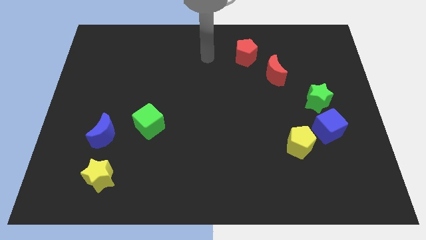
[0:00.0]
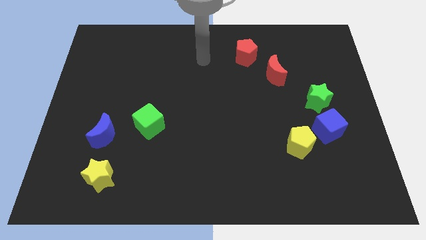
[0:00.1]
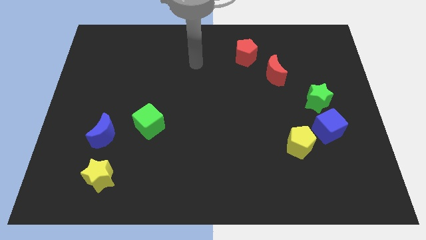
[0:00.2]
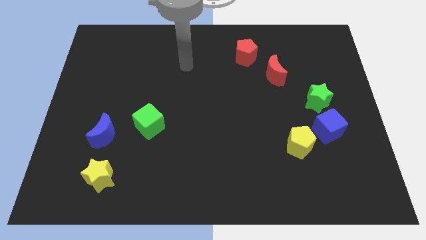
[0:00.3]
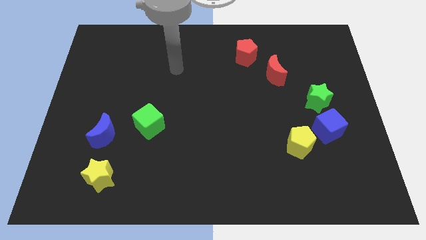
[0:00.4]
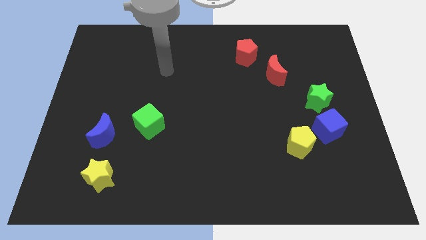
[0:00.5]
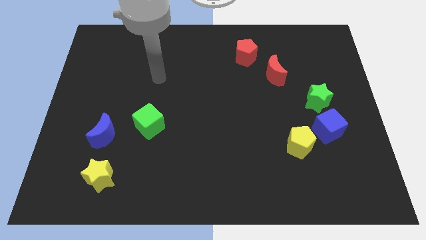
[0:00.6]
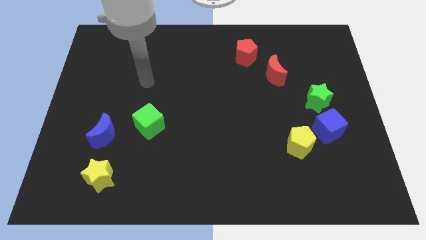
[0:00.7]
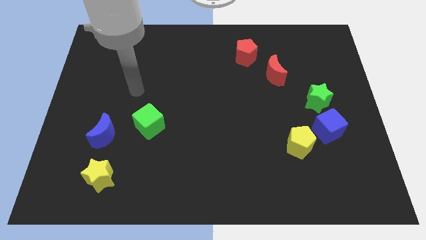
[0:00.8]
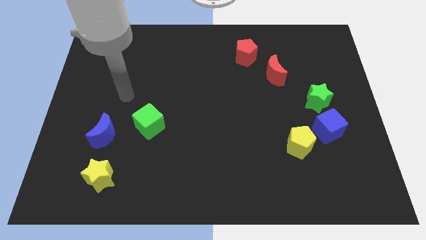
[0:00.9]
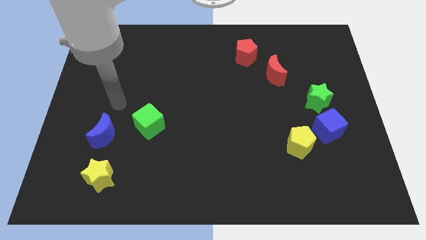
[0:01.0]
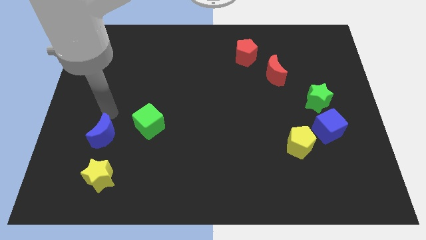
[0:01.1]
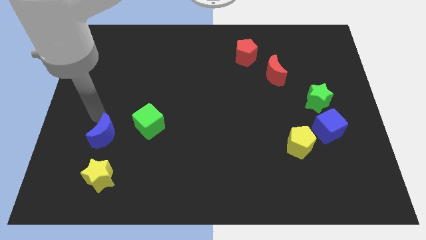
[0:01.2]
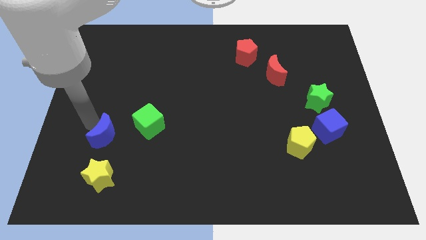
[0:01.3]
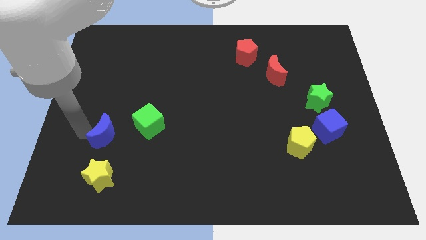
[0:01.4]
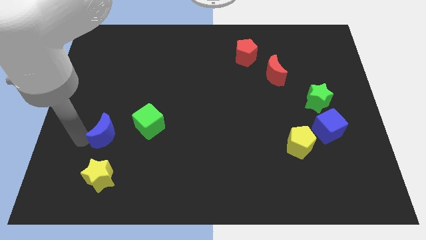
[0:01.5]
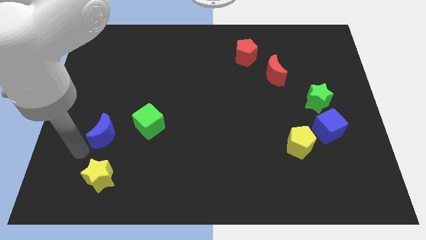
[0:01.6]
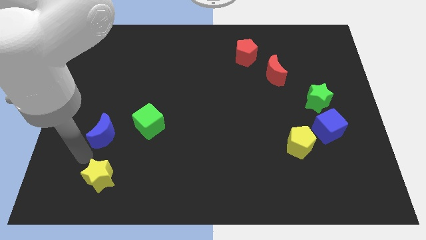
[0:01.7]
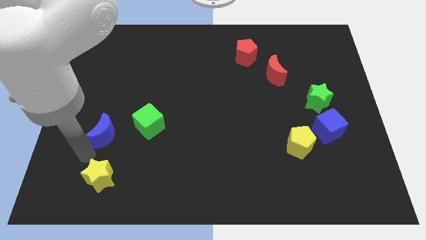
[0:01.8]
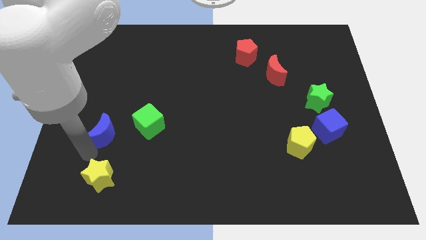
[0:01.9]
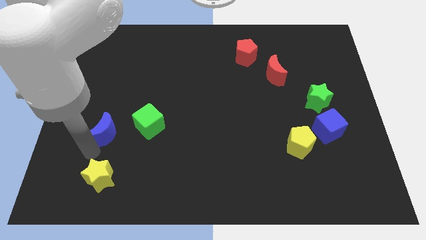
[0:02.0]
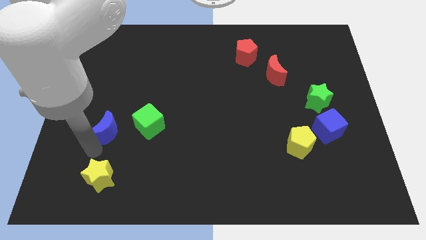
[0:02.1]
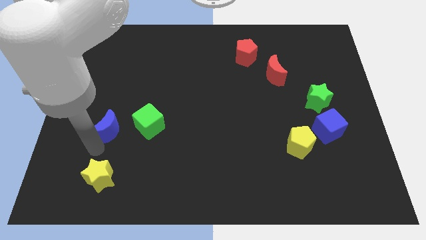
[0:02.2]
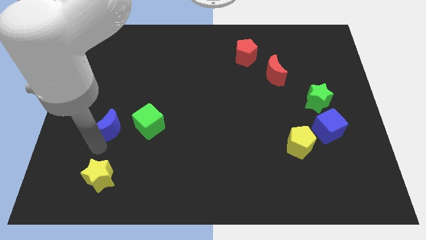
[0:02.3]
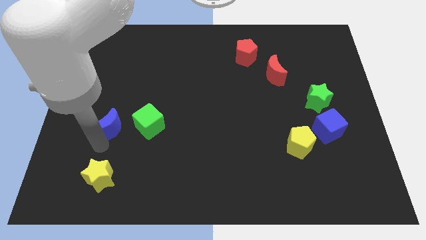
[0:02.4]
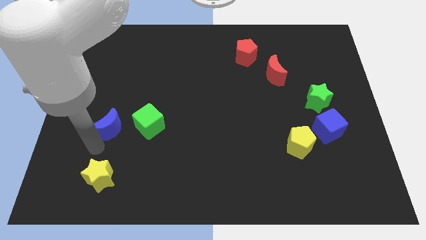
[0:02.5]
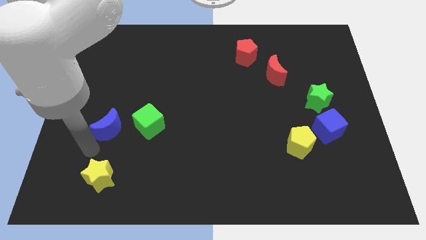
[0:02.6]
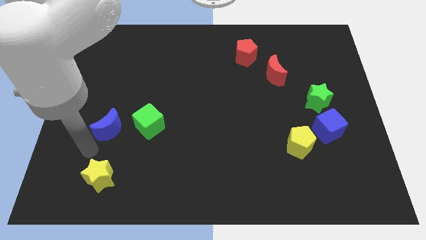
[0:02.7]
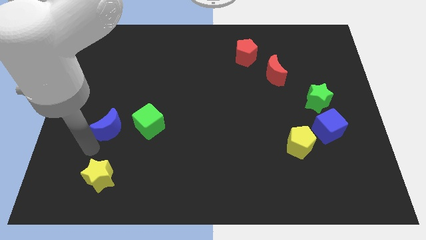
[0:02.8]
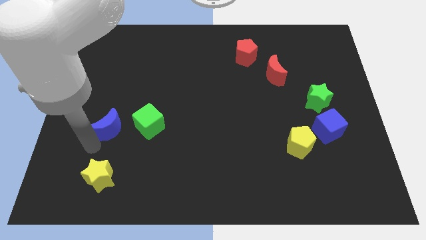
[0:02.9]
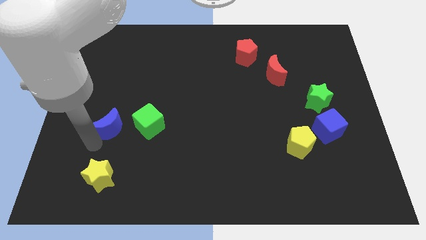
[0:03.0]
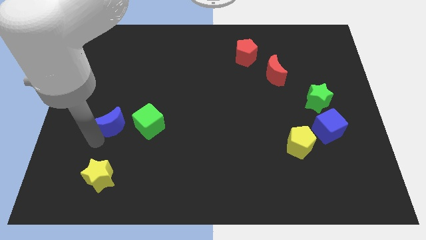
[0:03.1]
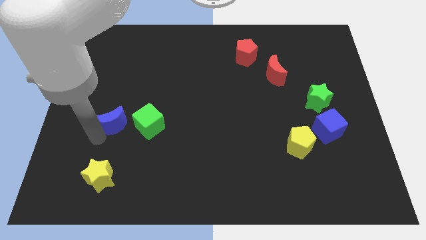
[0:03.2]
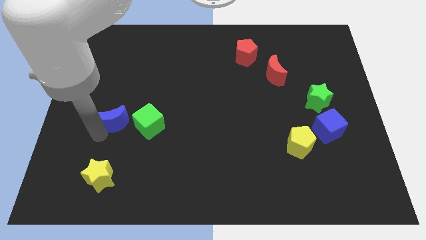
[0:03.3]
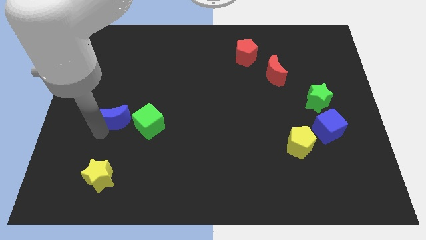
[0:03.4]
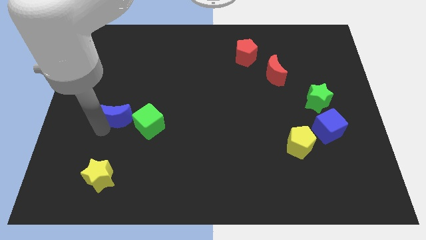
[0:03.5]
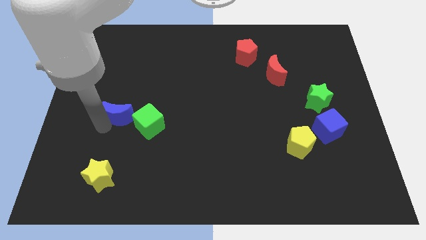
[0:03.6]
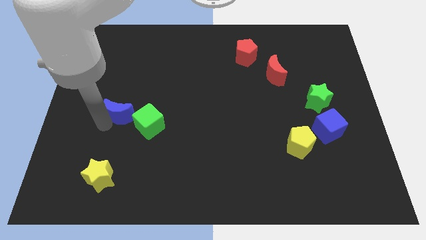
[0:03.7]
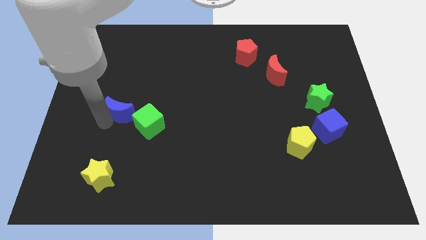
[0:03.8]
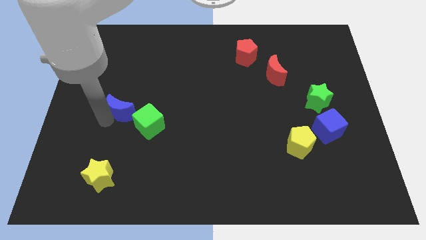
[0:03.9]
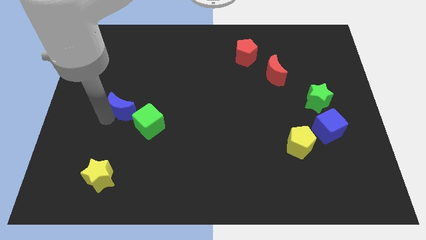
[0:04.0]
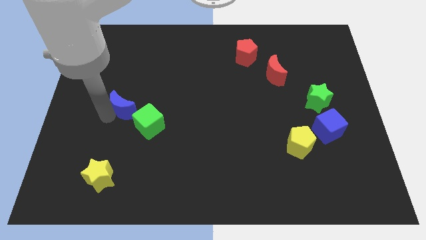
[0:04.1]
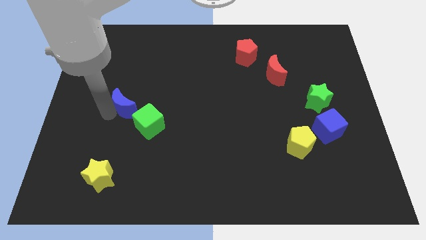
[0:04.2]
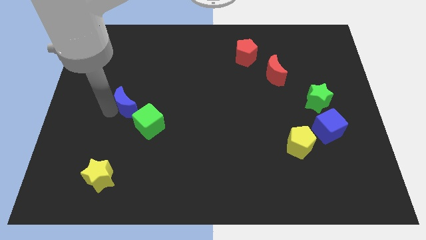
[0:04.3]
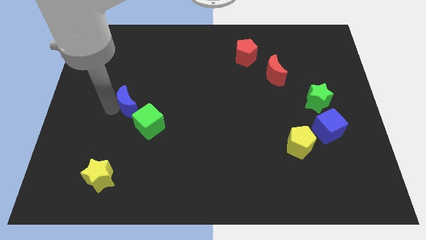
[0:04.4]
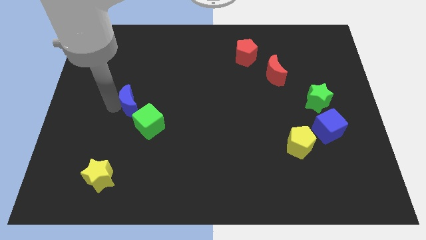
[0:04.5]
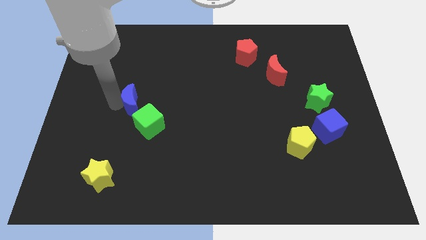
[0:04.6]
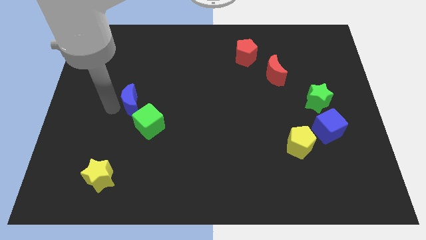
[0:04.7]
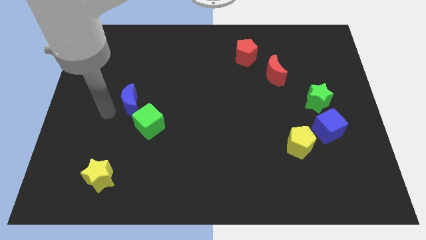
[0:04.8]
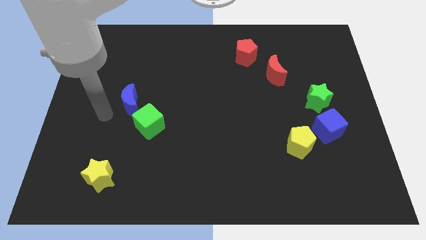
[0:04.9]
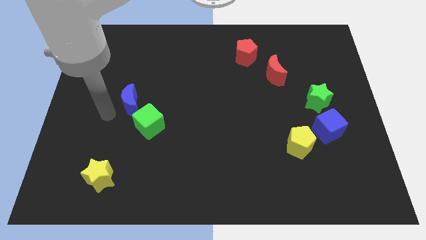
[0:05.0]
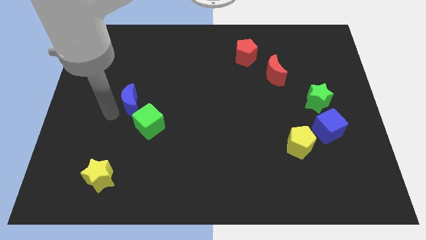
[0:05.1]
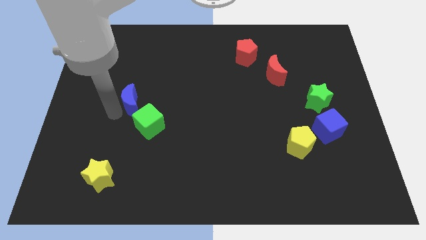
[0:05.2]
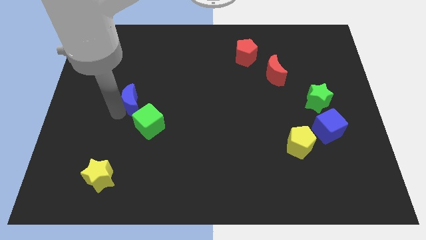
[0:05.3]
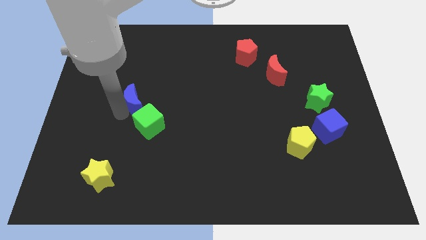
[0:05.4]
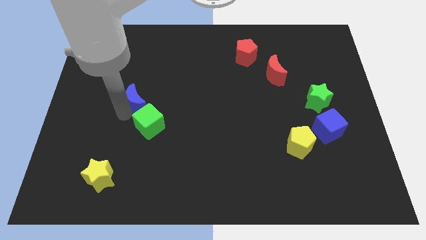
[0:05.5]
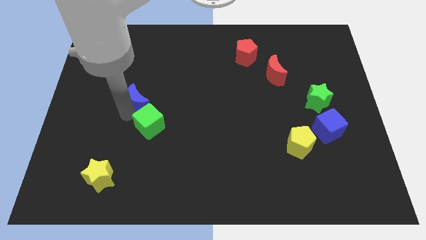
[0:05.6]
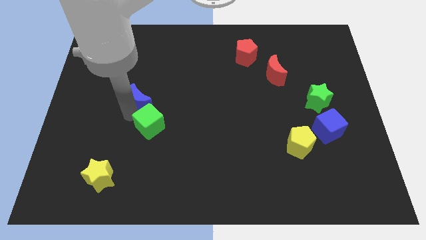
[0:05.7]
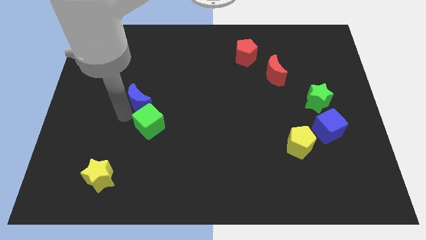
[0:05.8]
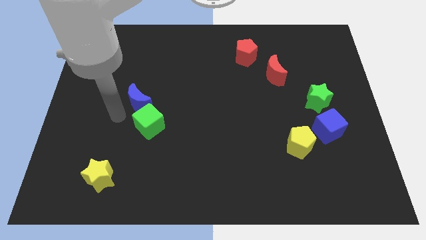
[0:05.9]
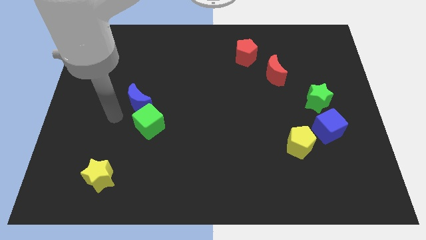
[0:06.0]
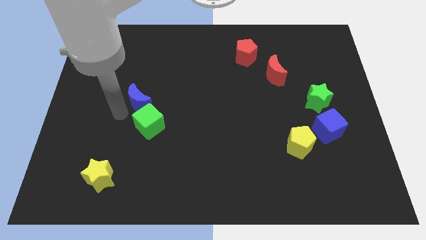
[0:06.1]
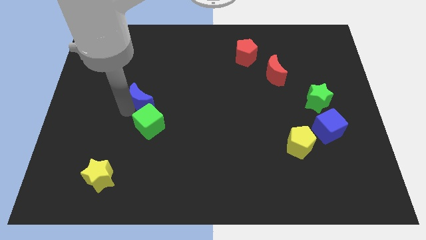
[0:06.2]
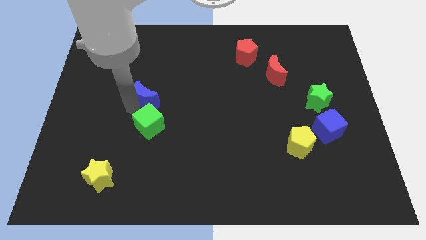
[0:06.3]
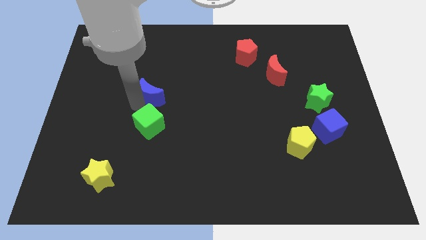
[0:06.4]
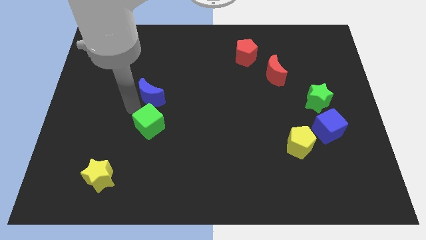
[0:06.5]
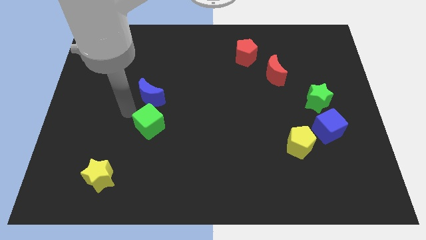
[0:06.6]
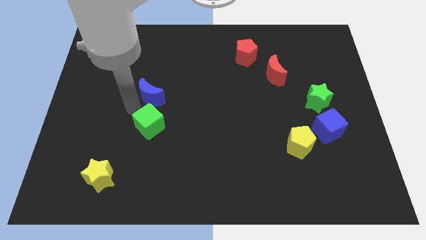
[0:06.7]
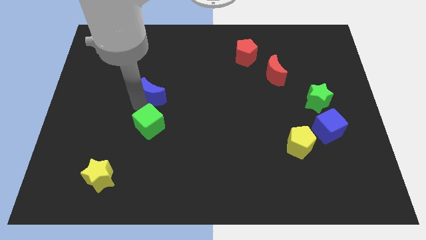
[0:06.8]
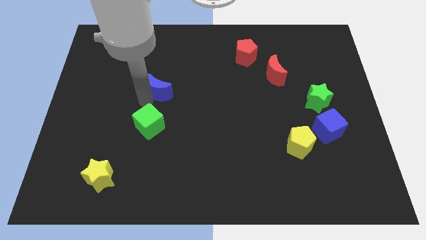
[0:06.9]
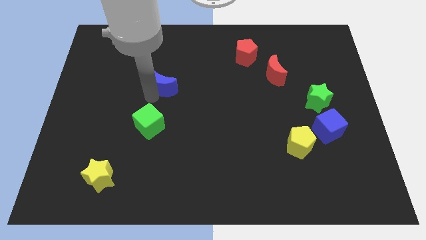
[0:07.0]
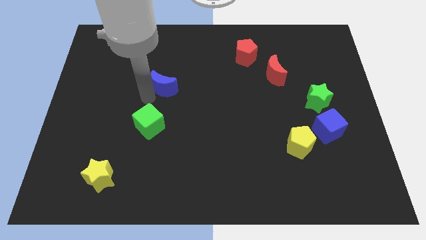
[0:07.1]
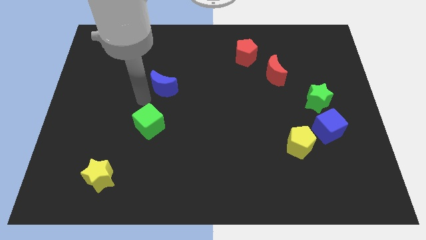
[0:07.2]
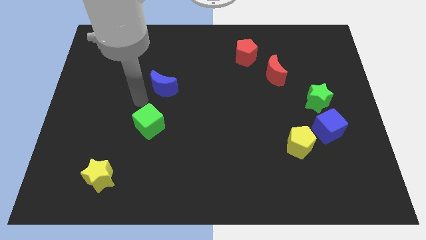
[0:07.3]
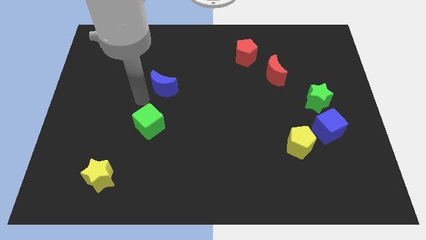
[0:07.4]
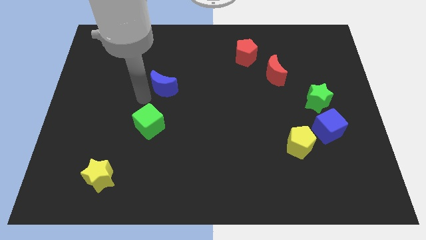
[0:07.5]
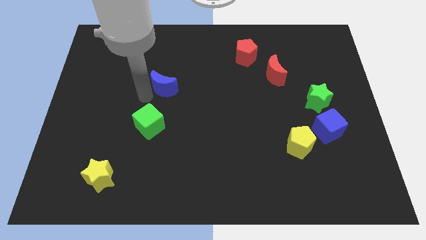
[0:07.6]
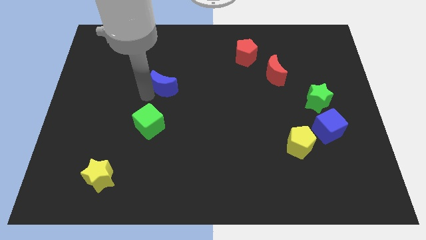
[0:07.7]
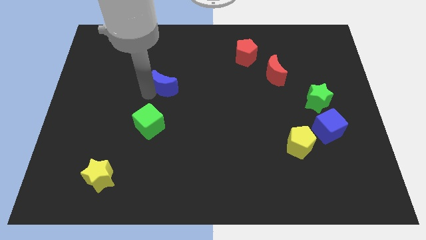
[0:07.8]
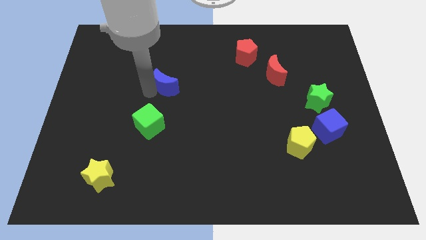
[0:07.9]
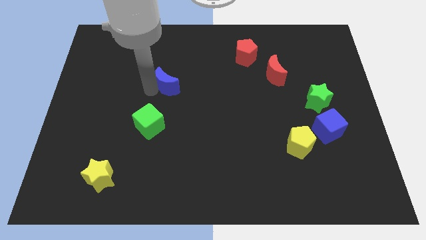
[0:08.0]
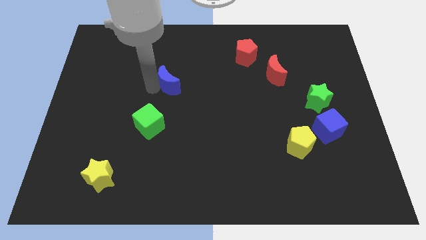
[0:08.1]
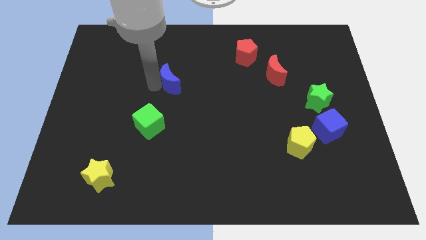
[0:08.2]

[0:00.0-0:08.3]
move the blue moon upwards and to the right
